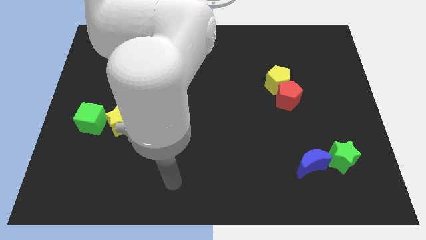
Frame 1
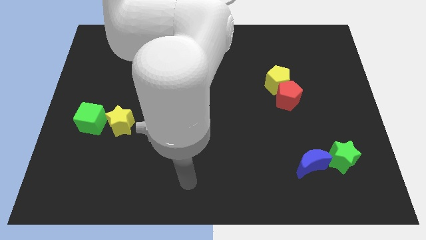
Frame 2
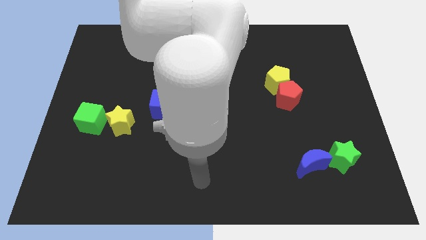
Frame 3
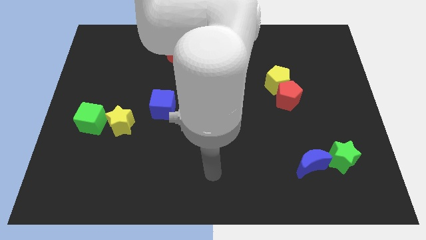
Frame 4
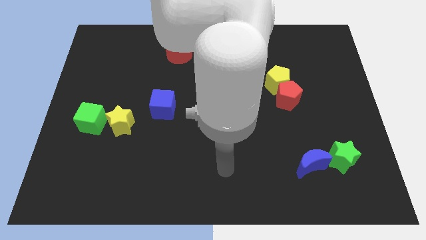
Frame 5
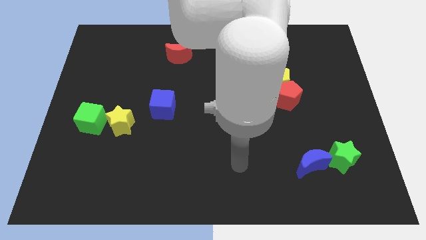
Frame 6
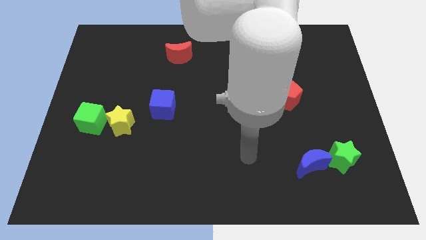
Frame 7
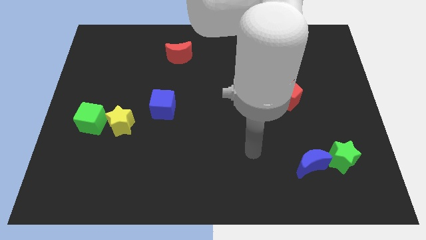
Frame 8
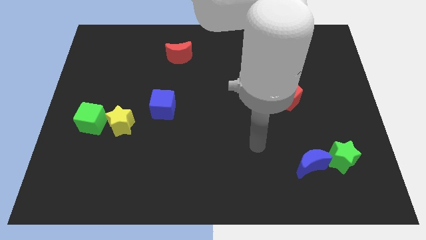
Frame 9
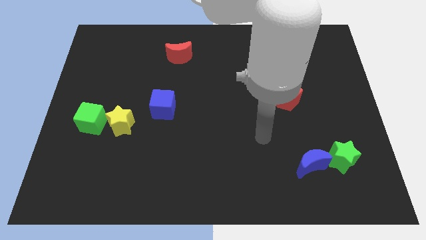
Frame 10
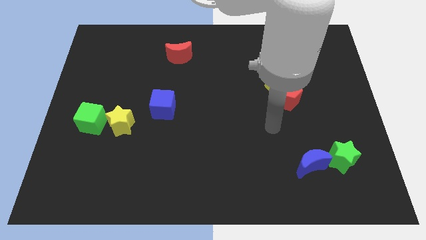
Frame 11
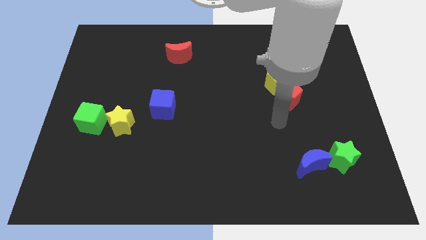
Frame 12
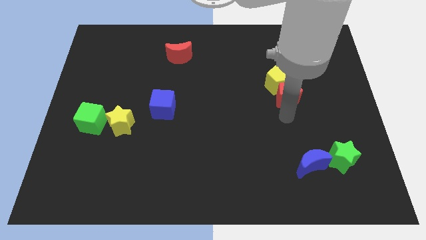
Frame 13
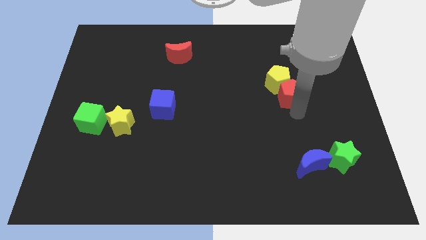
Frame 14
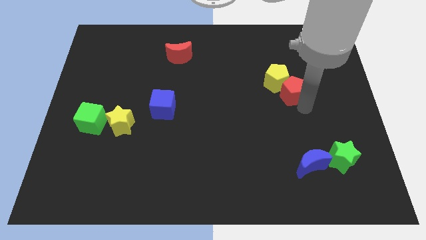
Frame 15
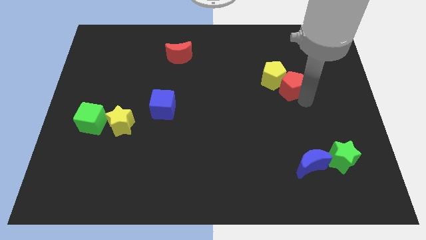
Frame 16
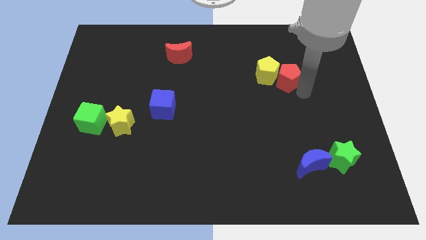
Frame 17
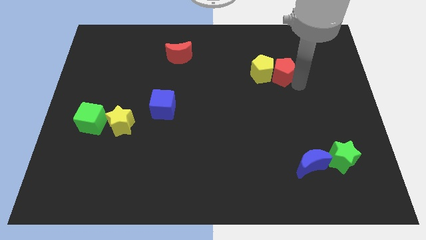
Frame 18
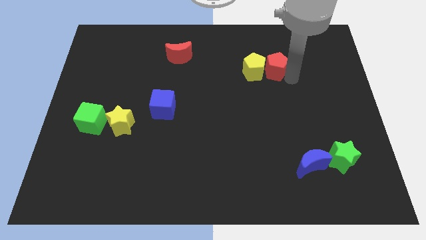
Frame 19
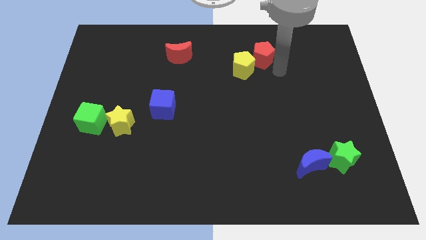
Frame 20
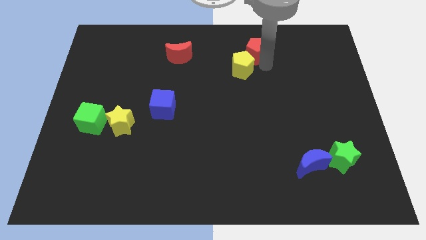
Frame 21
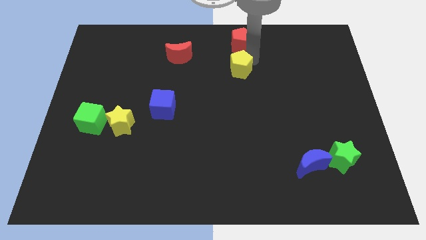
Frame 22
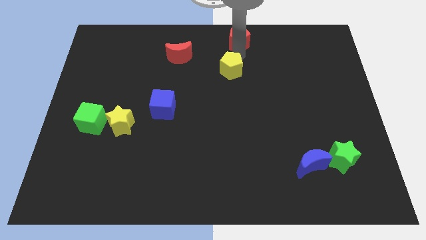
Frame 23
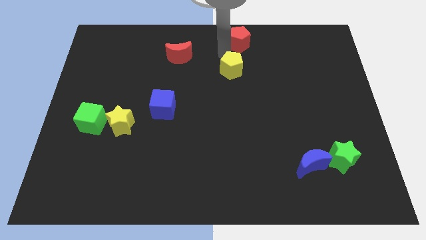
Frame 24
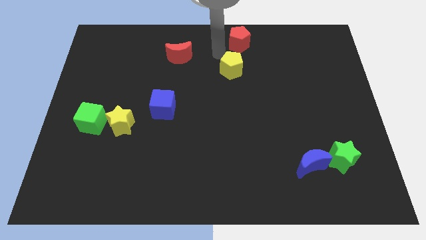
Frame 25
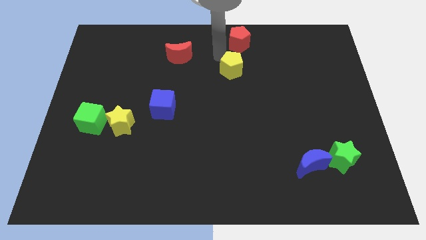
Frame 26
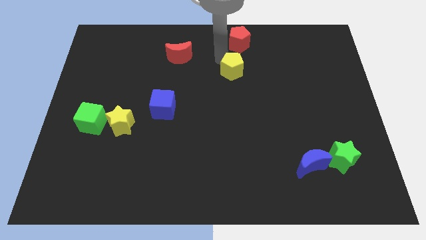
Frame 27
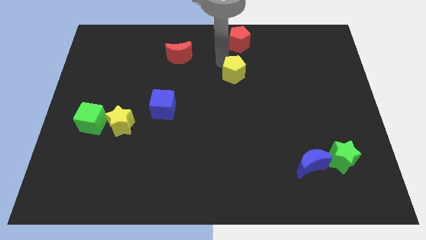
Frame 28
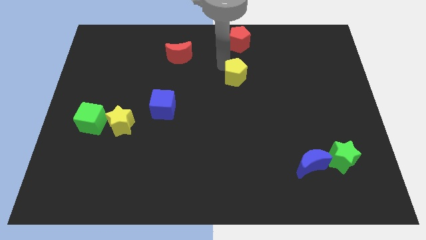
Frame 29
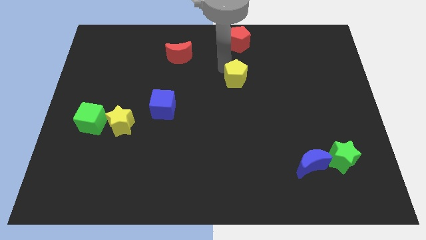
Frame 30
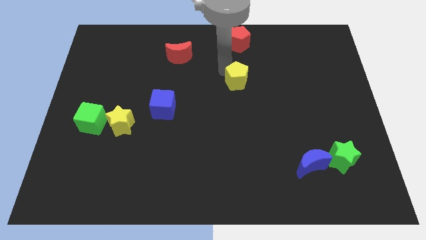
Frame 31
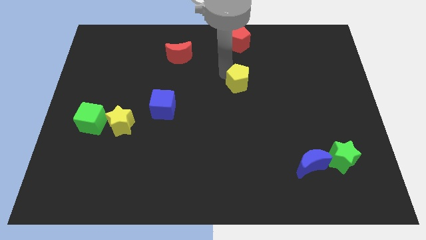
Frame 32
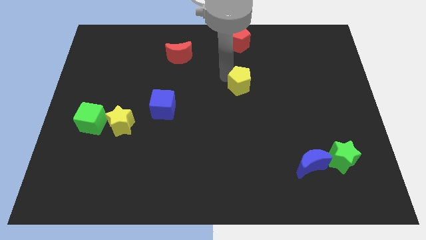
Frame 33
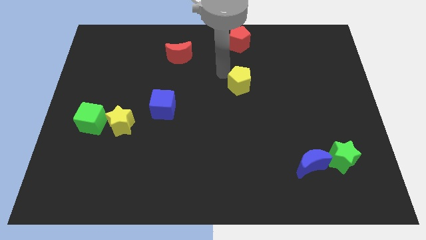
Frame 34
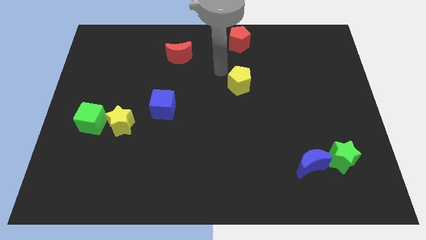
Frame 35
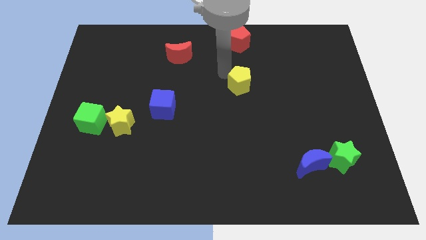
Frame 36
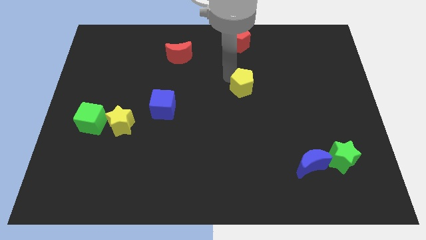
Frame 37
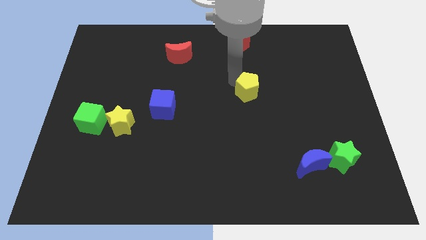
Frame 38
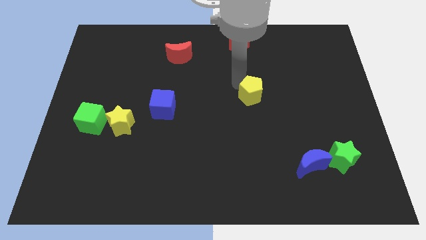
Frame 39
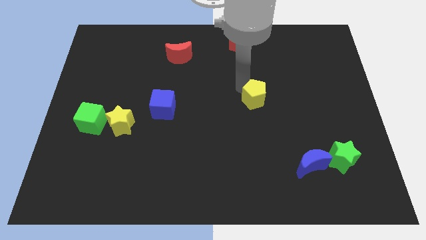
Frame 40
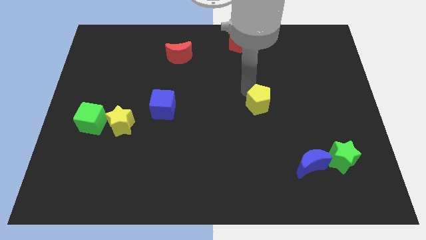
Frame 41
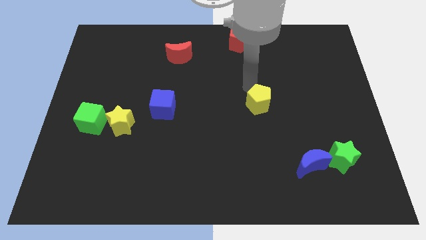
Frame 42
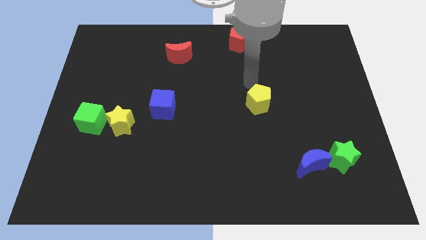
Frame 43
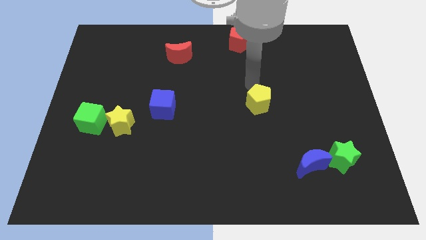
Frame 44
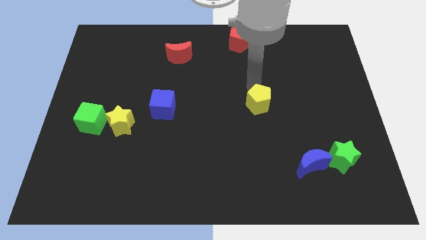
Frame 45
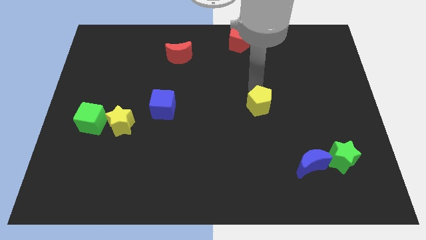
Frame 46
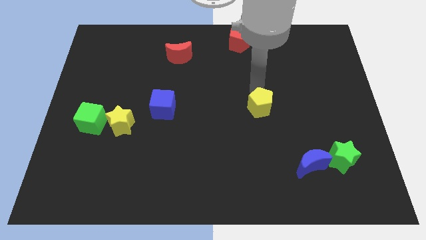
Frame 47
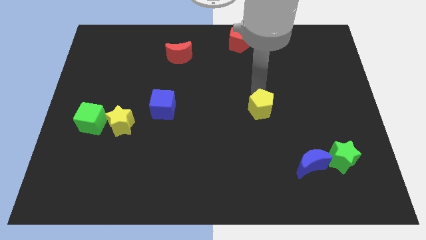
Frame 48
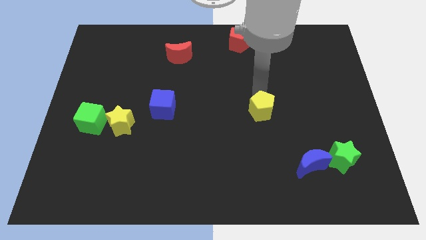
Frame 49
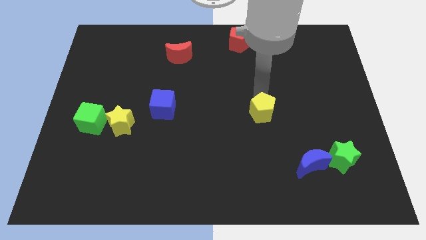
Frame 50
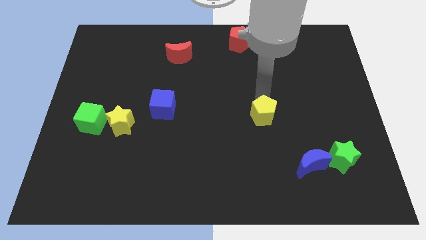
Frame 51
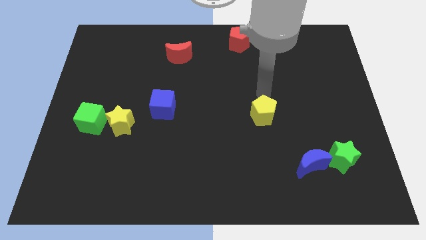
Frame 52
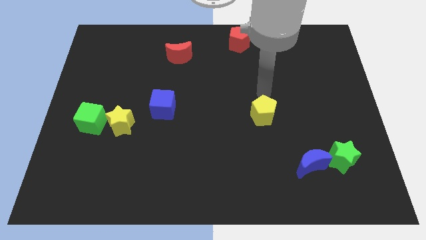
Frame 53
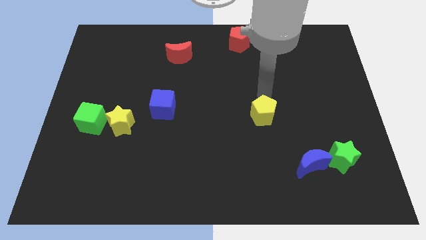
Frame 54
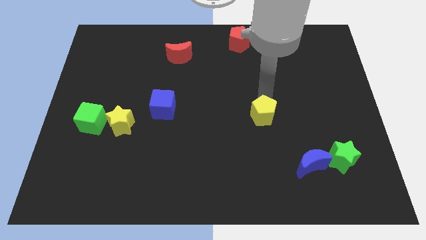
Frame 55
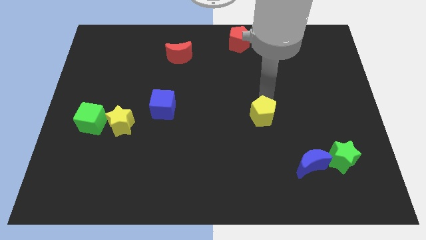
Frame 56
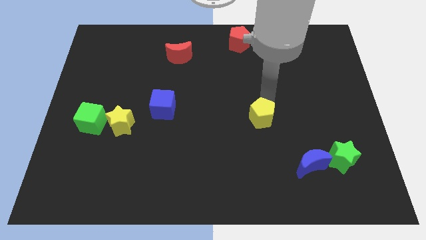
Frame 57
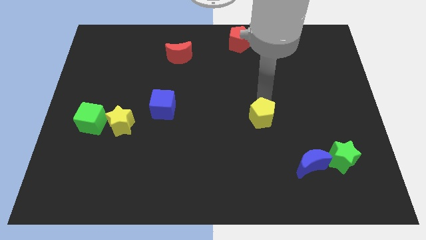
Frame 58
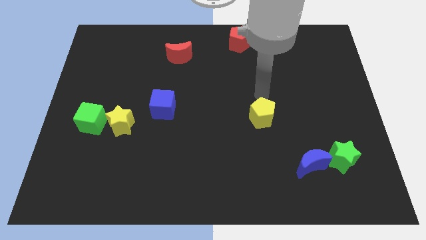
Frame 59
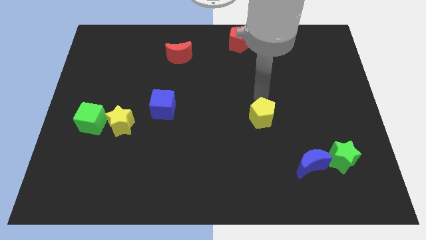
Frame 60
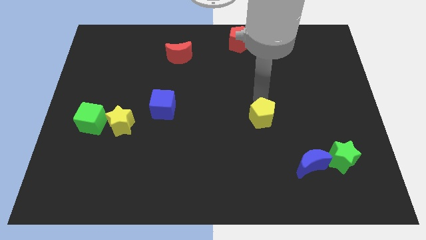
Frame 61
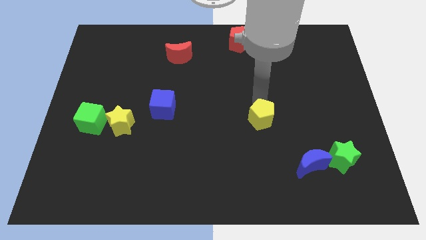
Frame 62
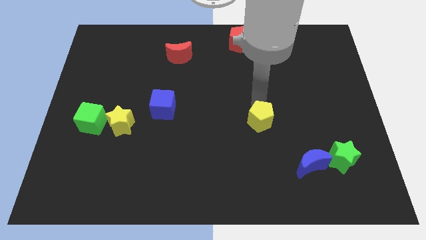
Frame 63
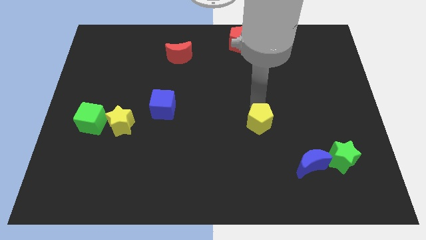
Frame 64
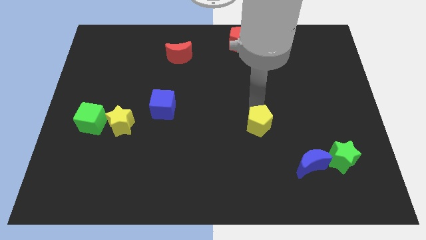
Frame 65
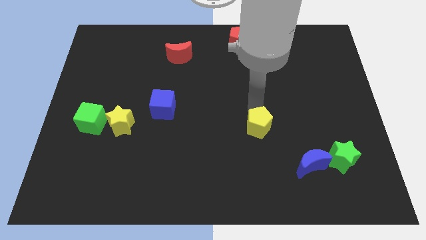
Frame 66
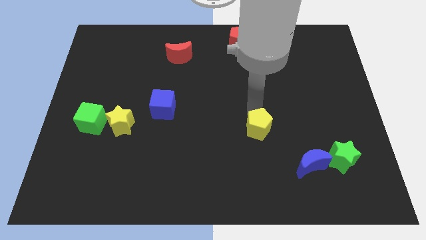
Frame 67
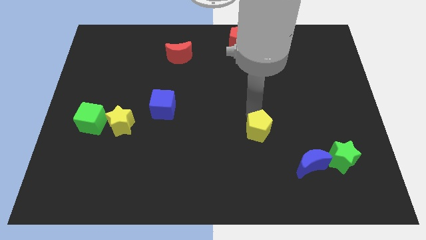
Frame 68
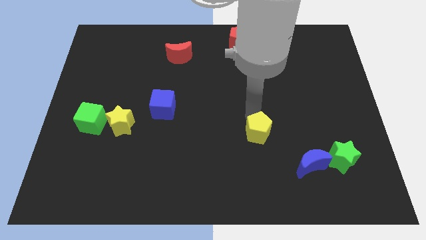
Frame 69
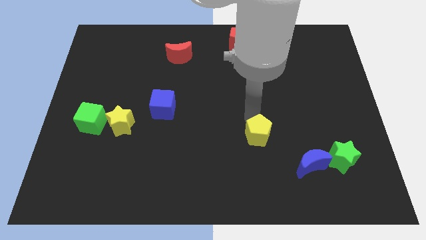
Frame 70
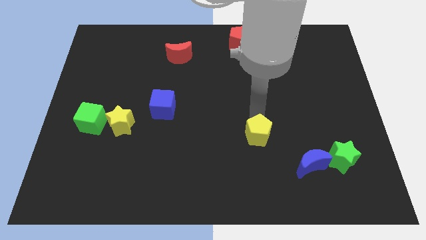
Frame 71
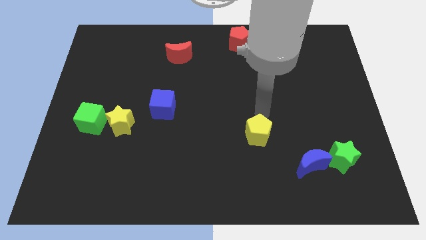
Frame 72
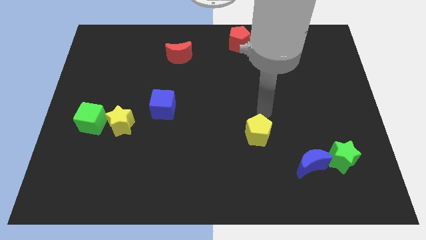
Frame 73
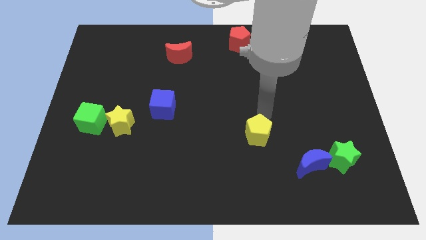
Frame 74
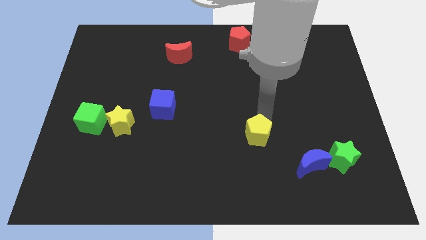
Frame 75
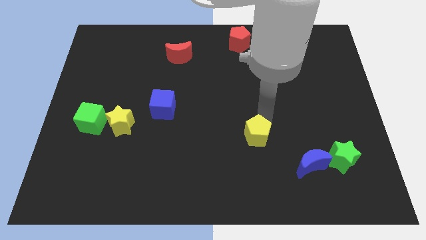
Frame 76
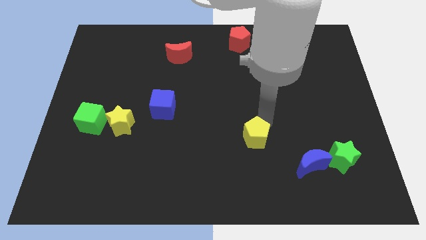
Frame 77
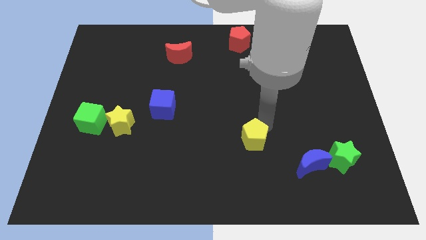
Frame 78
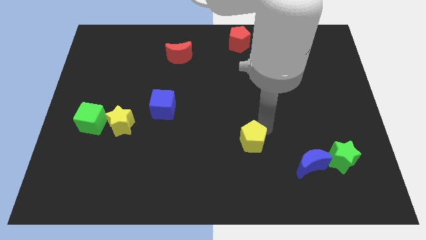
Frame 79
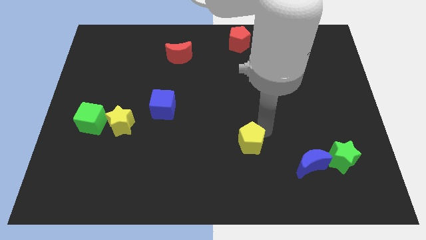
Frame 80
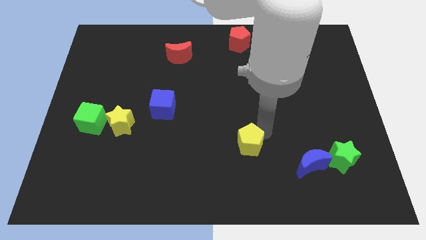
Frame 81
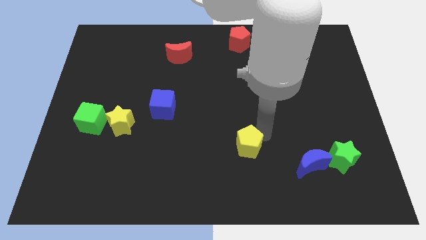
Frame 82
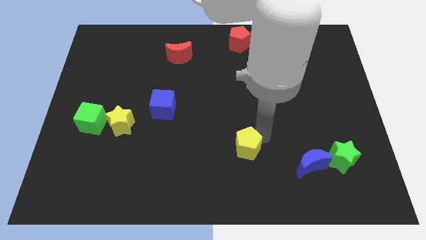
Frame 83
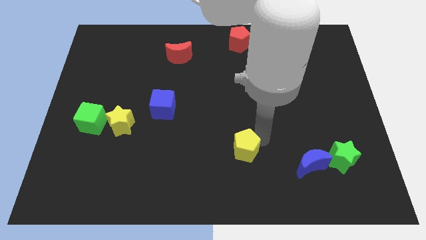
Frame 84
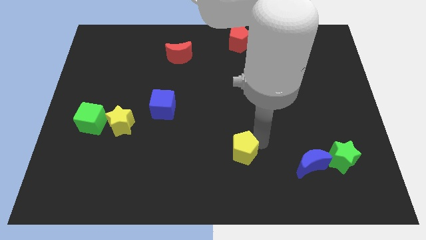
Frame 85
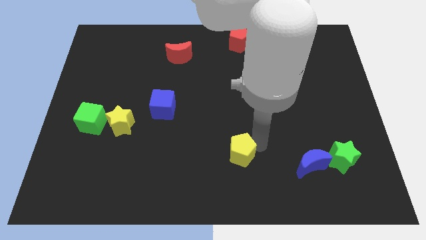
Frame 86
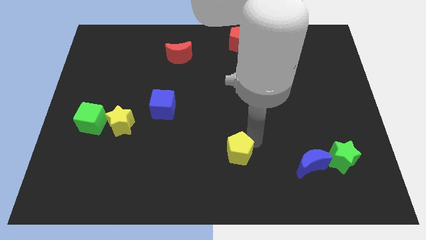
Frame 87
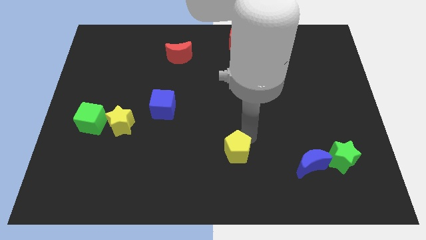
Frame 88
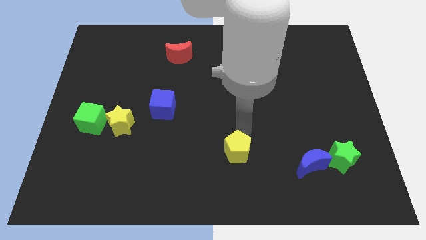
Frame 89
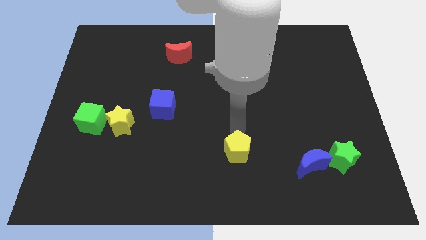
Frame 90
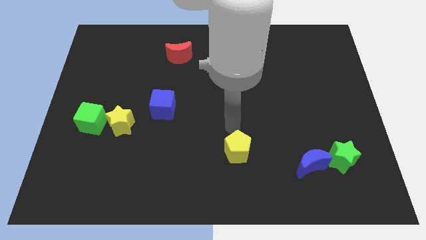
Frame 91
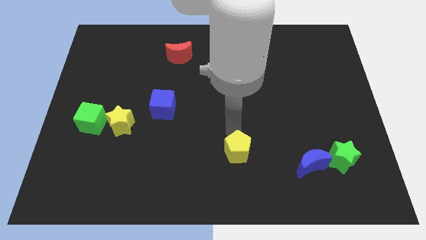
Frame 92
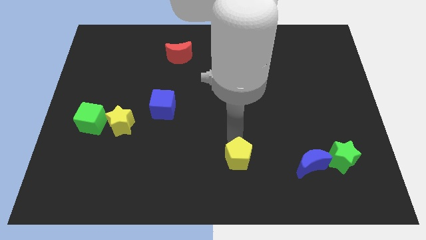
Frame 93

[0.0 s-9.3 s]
put the yellow pentagon to the bottom side
